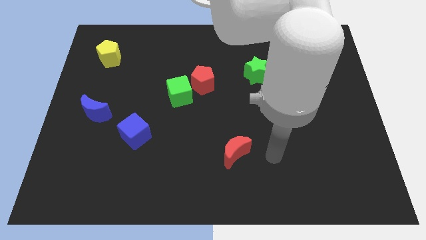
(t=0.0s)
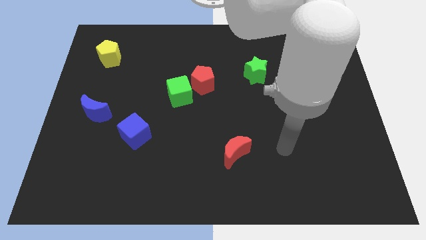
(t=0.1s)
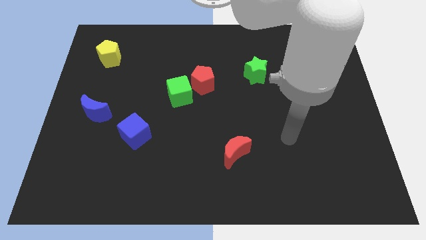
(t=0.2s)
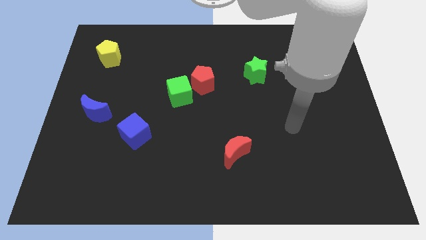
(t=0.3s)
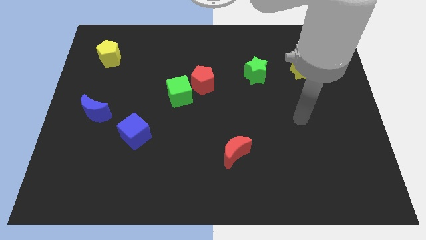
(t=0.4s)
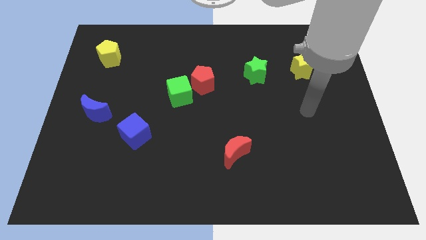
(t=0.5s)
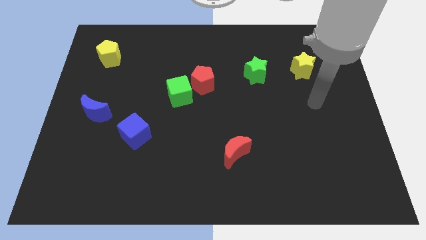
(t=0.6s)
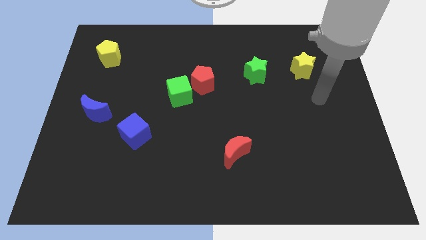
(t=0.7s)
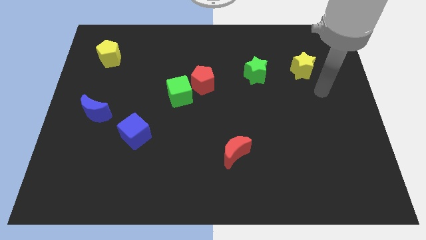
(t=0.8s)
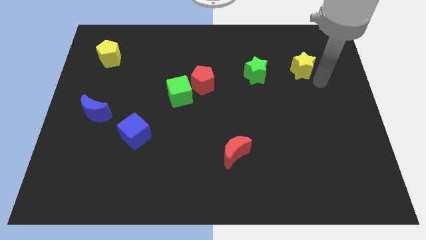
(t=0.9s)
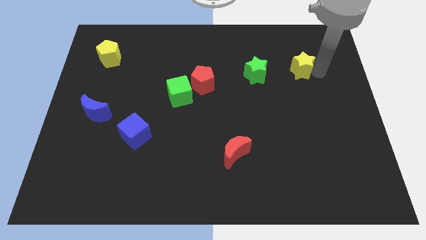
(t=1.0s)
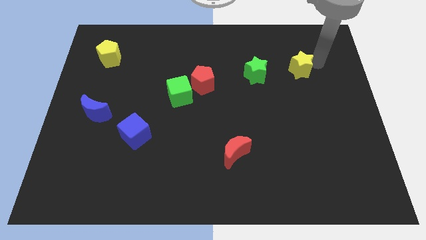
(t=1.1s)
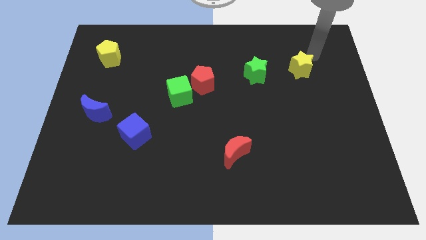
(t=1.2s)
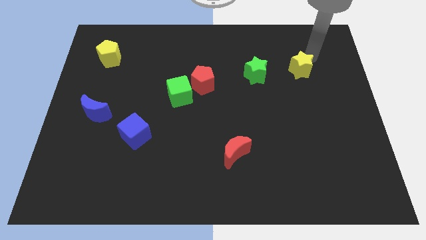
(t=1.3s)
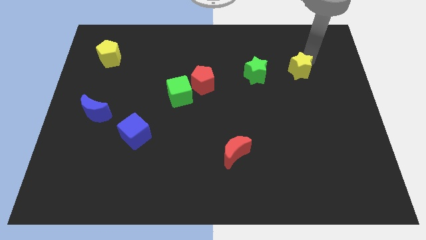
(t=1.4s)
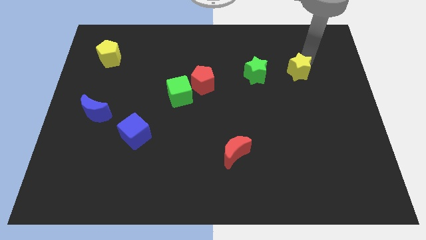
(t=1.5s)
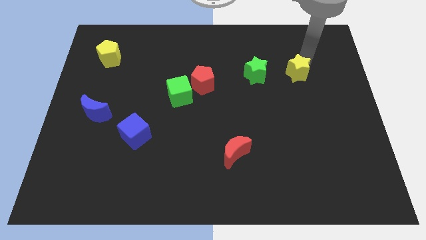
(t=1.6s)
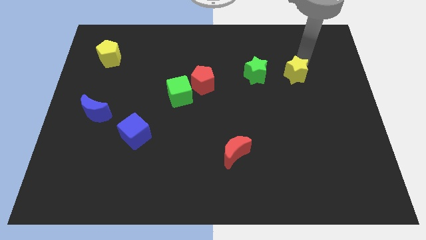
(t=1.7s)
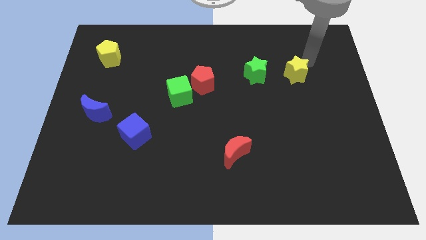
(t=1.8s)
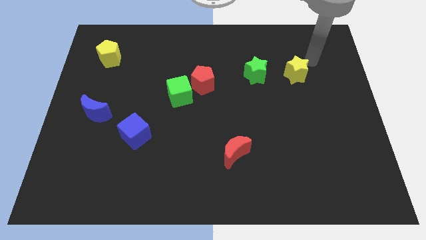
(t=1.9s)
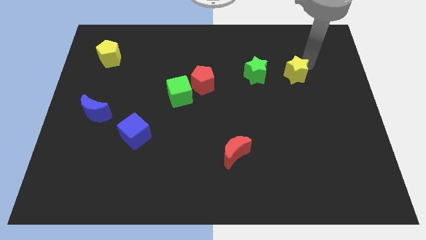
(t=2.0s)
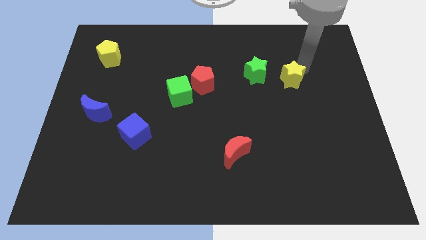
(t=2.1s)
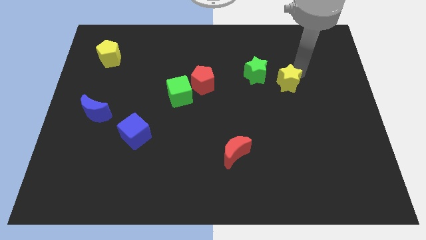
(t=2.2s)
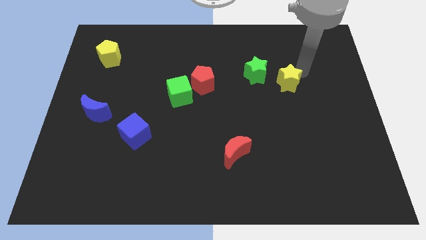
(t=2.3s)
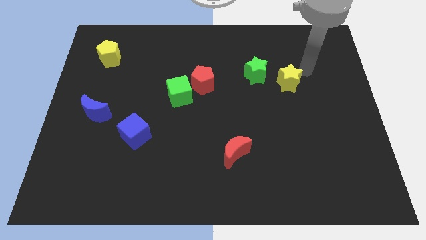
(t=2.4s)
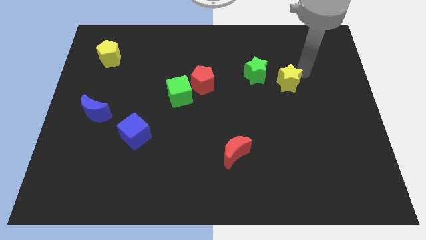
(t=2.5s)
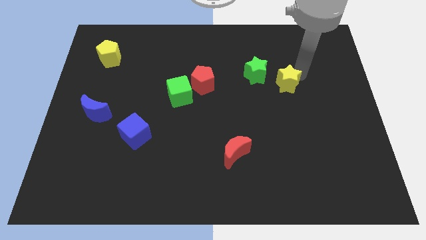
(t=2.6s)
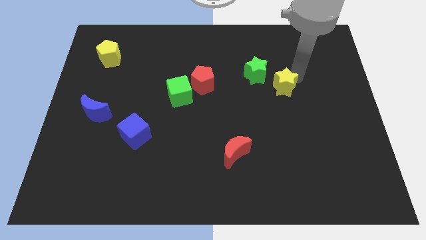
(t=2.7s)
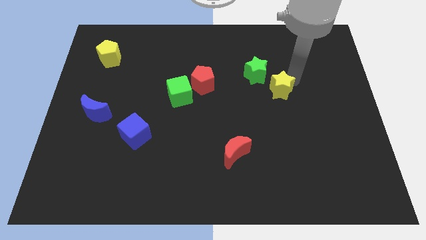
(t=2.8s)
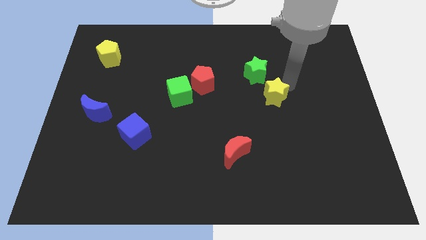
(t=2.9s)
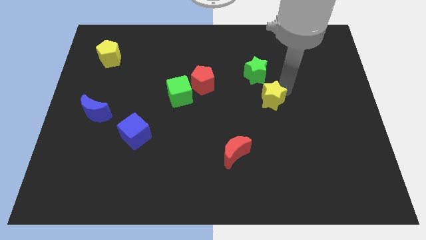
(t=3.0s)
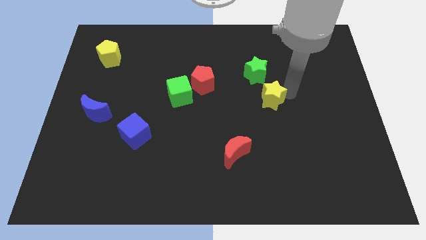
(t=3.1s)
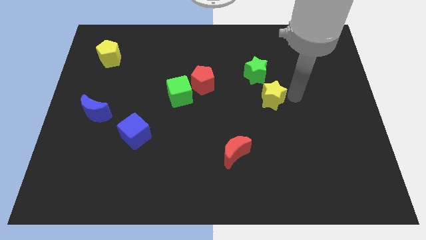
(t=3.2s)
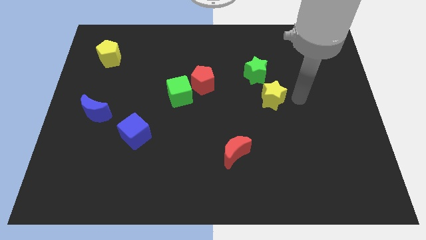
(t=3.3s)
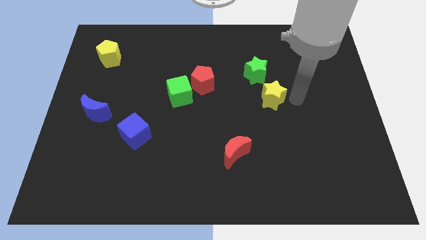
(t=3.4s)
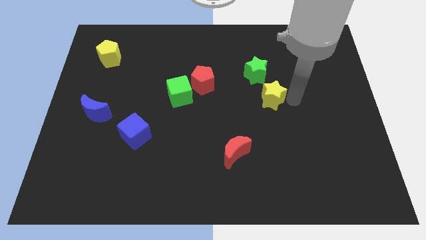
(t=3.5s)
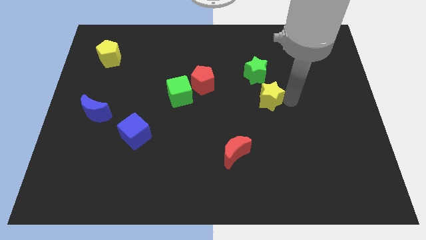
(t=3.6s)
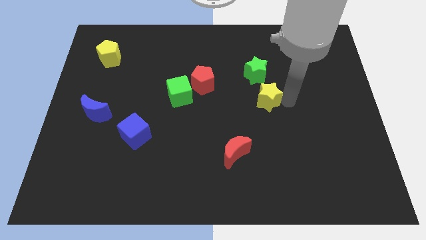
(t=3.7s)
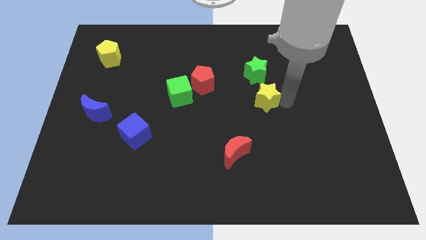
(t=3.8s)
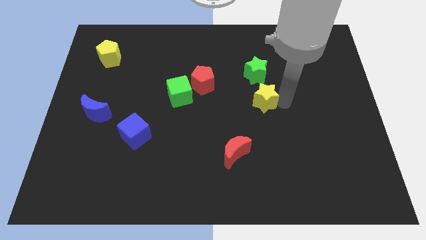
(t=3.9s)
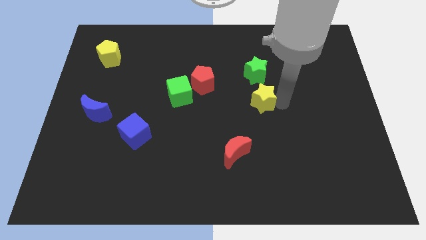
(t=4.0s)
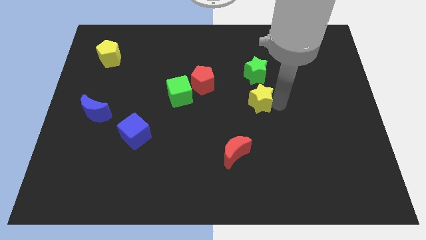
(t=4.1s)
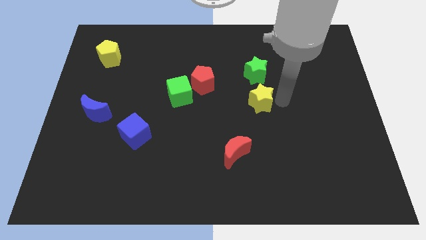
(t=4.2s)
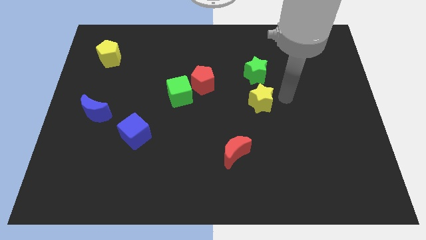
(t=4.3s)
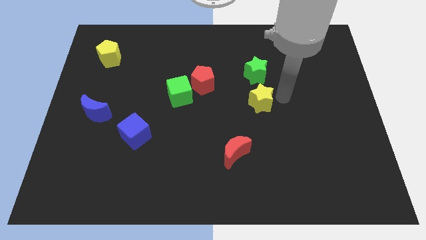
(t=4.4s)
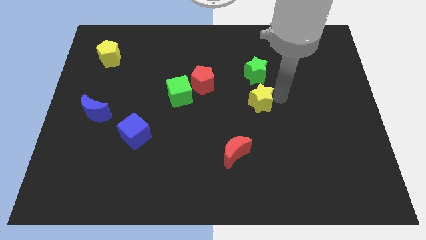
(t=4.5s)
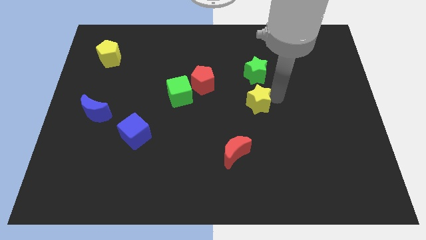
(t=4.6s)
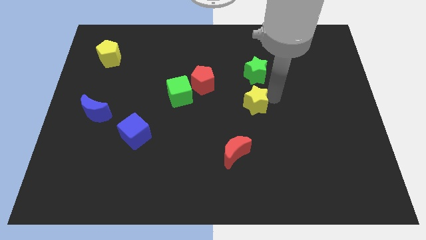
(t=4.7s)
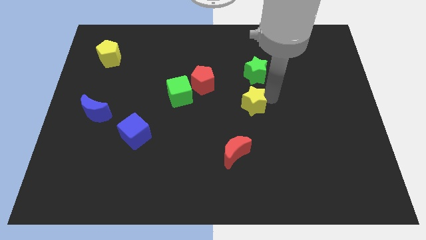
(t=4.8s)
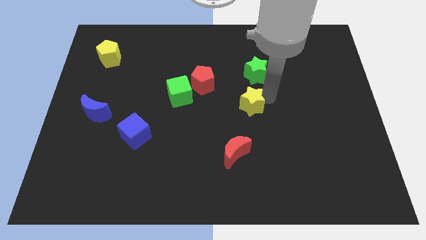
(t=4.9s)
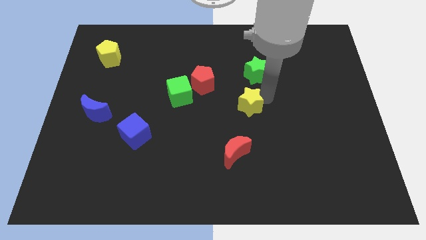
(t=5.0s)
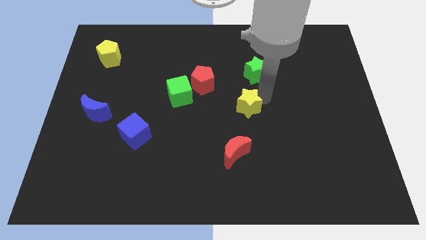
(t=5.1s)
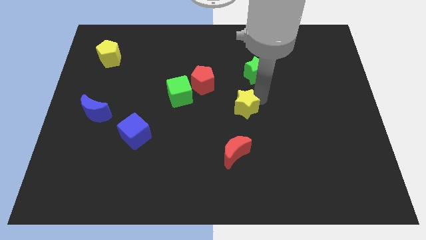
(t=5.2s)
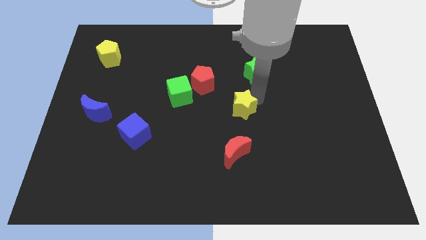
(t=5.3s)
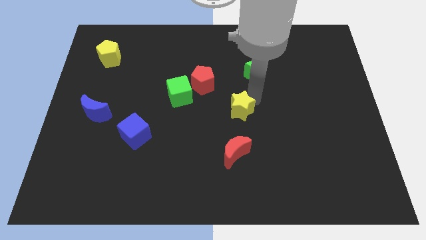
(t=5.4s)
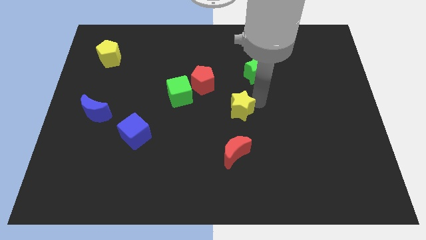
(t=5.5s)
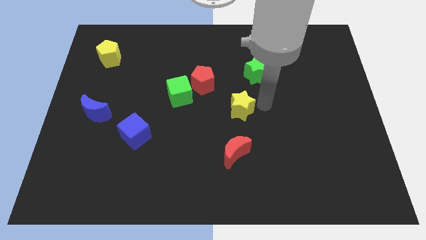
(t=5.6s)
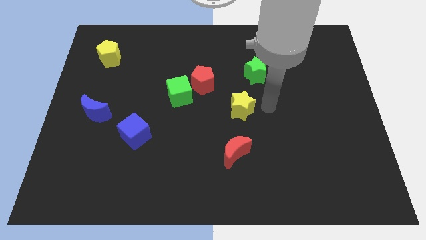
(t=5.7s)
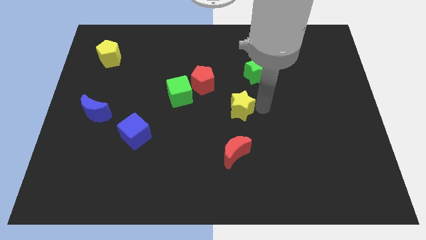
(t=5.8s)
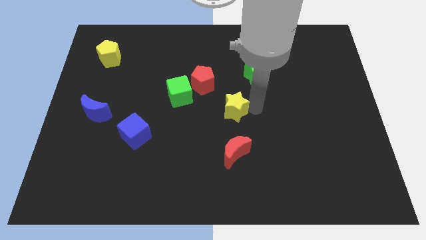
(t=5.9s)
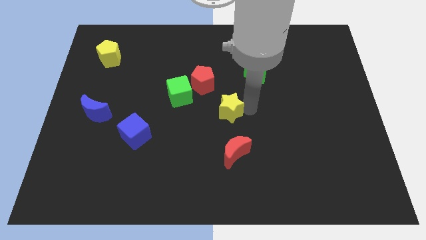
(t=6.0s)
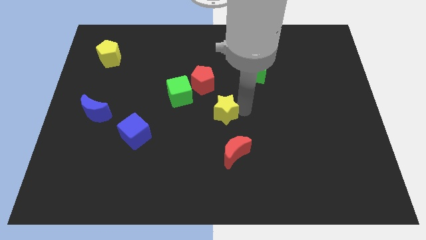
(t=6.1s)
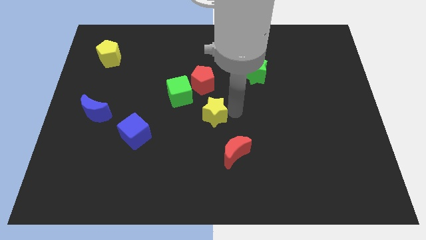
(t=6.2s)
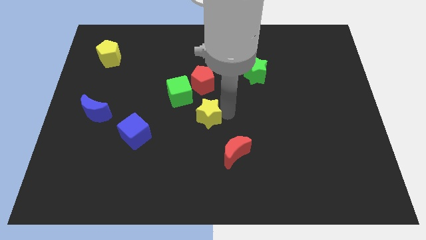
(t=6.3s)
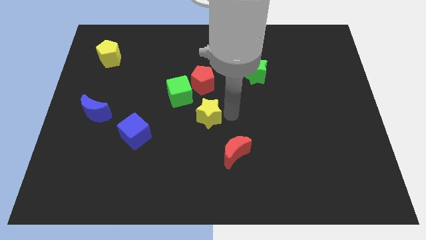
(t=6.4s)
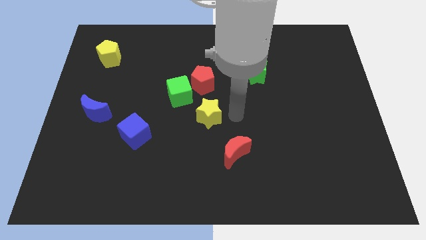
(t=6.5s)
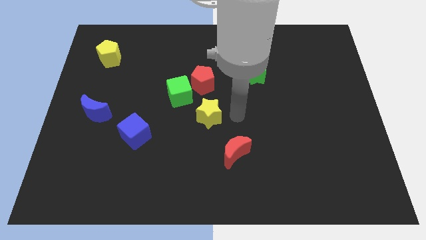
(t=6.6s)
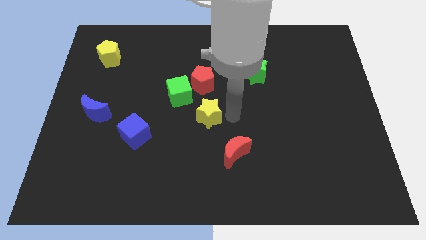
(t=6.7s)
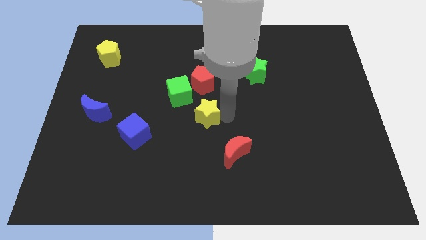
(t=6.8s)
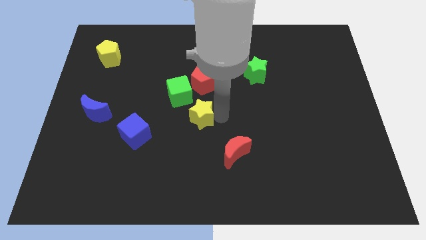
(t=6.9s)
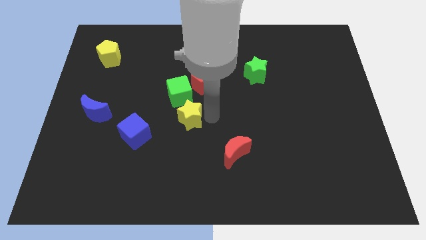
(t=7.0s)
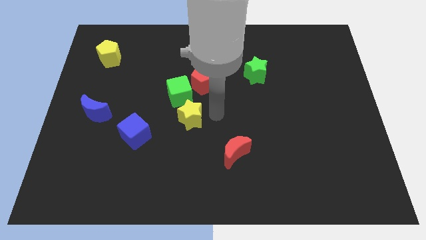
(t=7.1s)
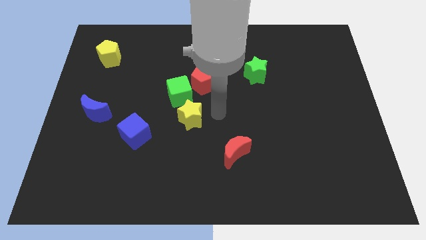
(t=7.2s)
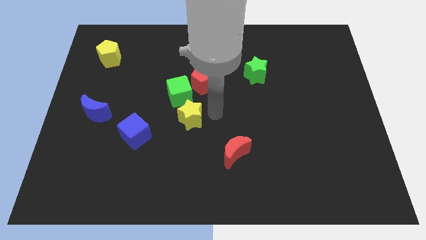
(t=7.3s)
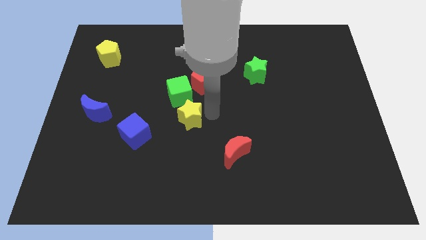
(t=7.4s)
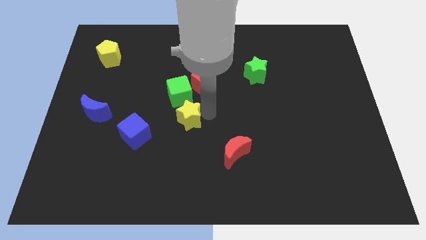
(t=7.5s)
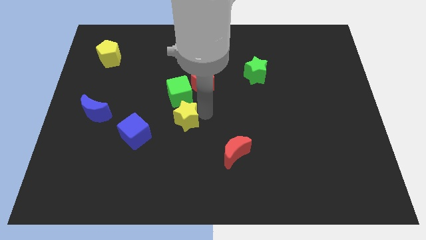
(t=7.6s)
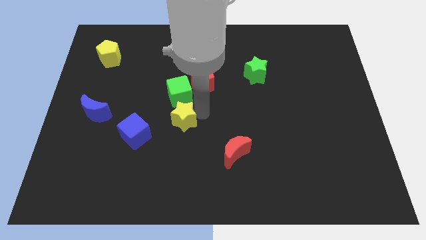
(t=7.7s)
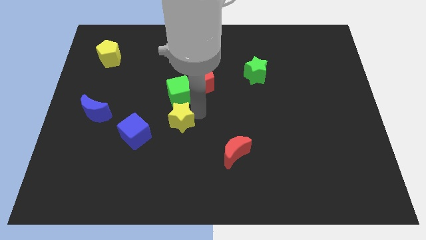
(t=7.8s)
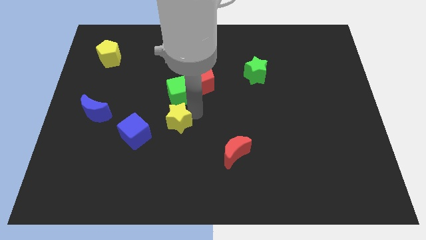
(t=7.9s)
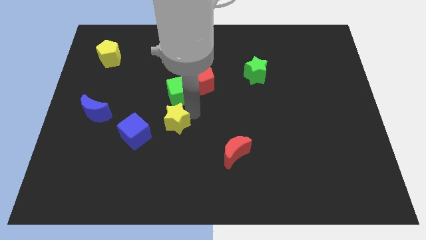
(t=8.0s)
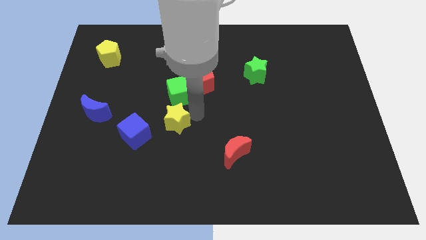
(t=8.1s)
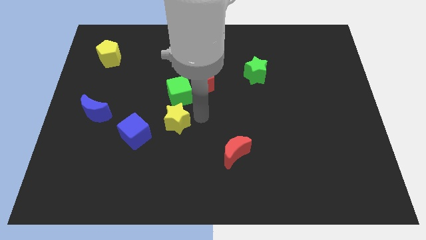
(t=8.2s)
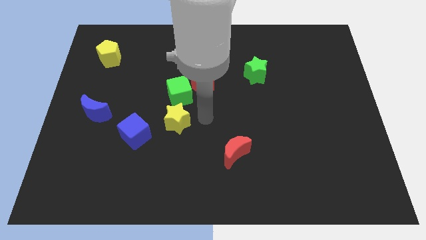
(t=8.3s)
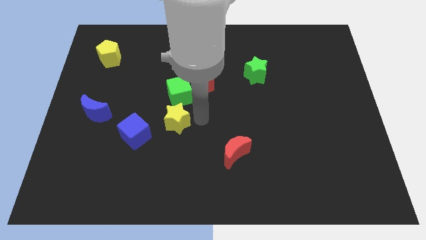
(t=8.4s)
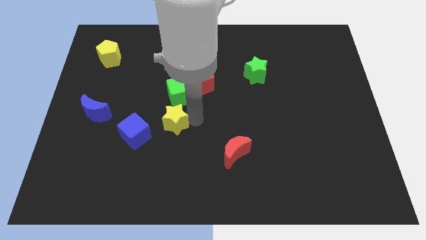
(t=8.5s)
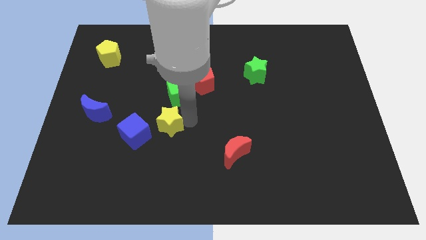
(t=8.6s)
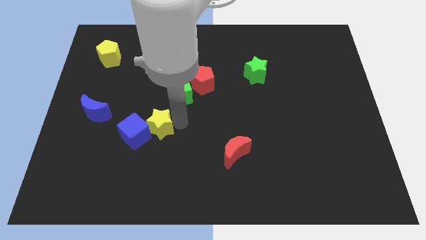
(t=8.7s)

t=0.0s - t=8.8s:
slide the yellow star towards the blue cube
